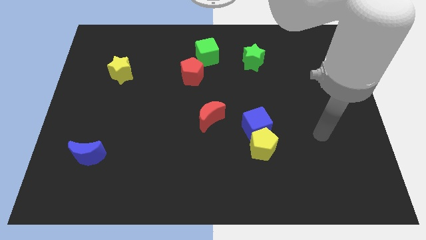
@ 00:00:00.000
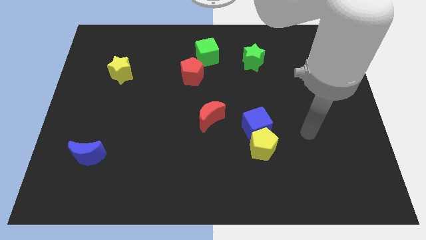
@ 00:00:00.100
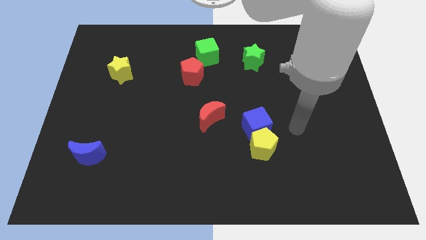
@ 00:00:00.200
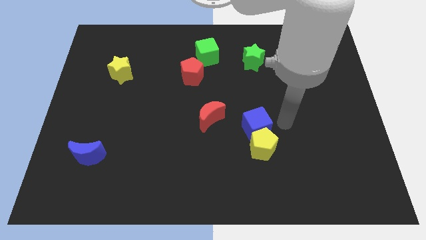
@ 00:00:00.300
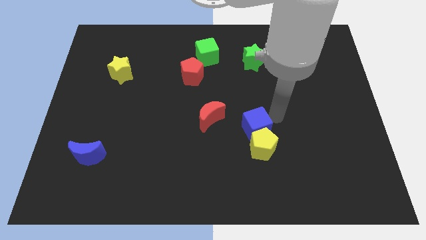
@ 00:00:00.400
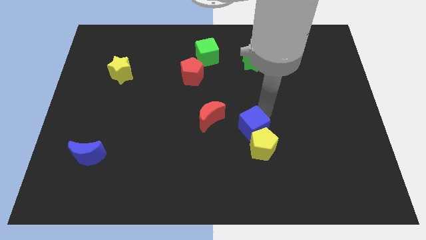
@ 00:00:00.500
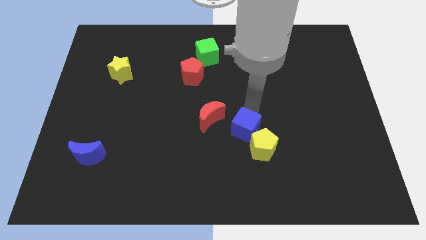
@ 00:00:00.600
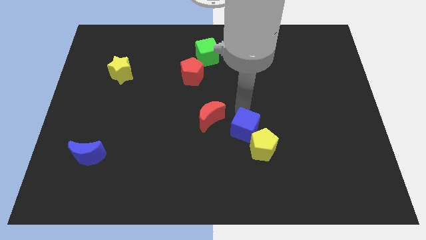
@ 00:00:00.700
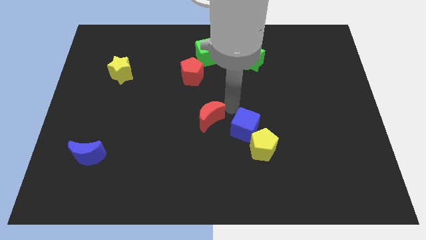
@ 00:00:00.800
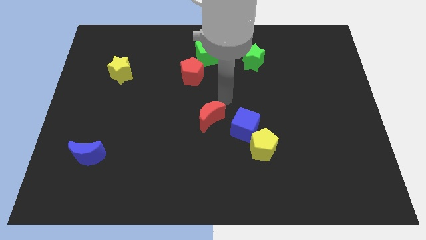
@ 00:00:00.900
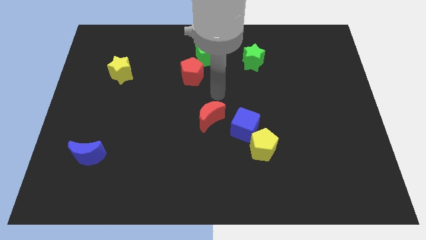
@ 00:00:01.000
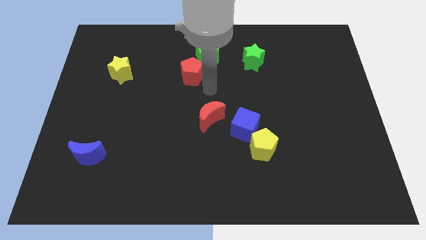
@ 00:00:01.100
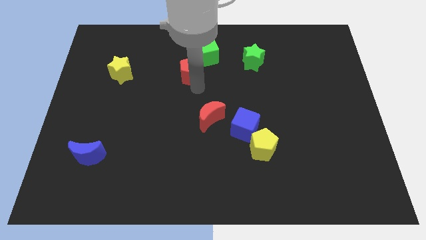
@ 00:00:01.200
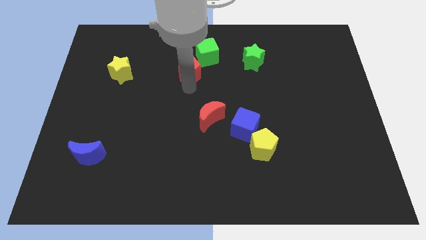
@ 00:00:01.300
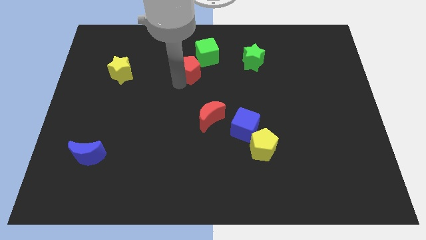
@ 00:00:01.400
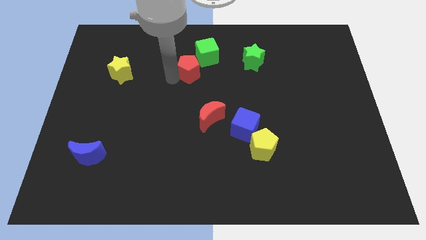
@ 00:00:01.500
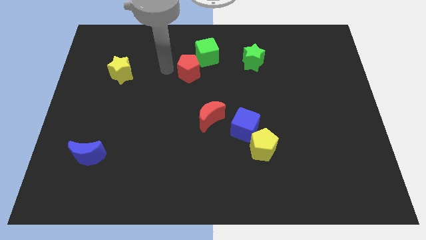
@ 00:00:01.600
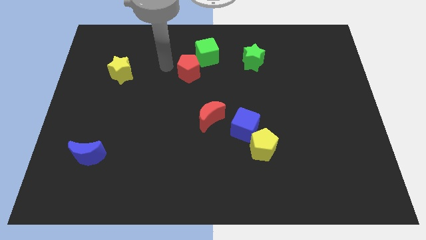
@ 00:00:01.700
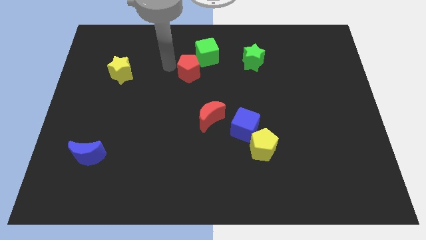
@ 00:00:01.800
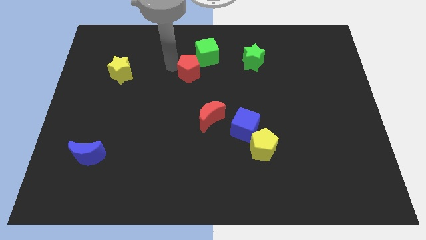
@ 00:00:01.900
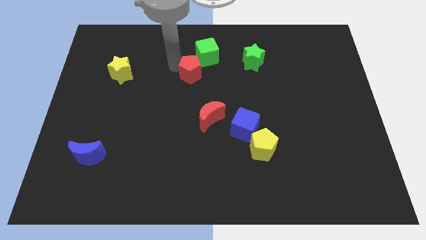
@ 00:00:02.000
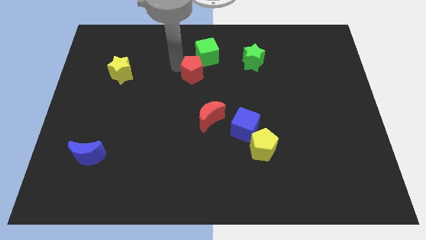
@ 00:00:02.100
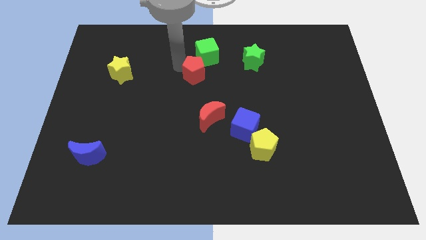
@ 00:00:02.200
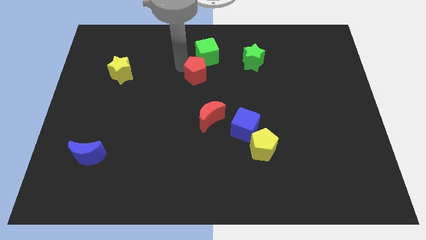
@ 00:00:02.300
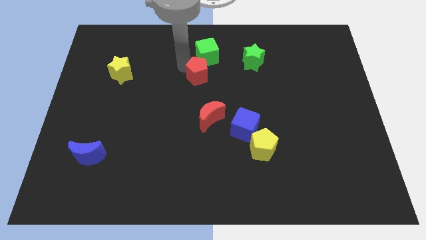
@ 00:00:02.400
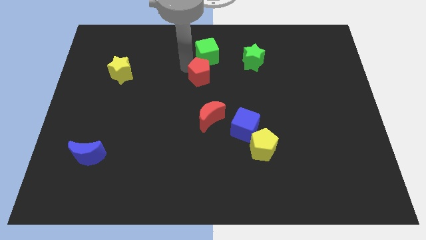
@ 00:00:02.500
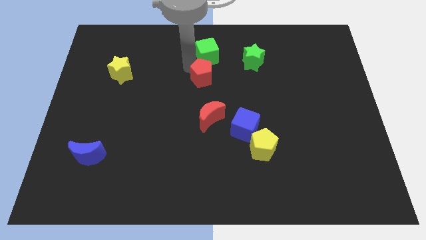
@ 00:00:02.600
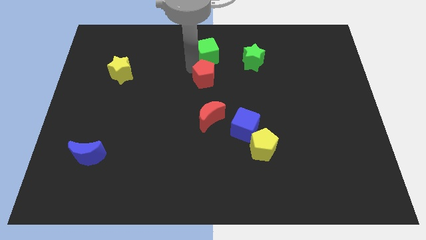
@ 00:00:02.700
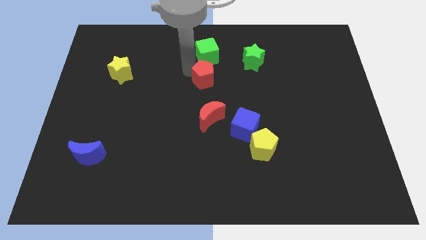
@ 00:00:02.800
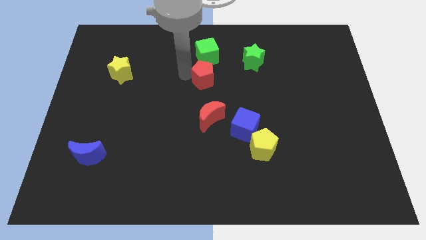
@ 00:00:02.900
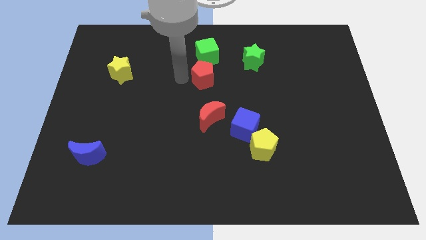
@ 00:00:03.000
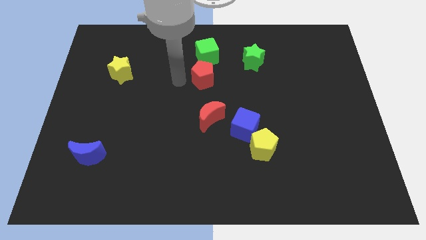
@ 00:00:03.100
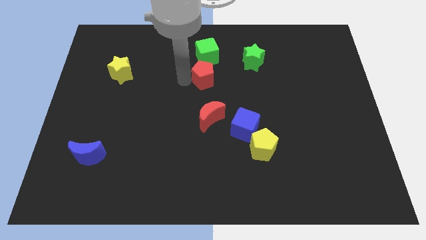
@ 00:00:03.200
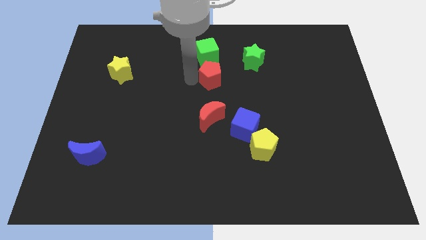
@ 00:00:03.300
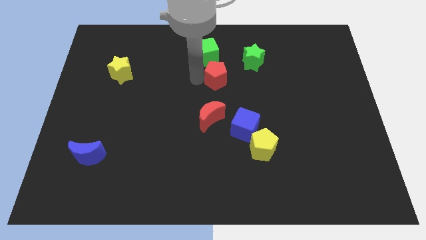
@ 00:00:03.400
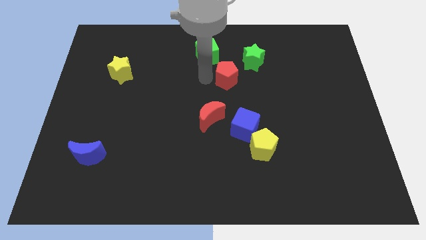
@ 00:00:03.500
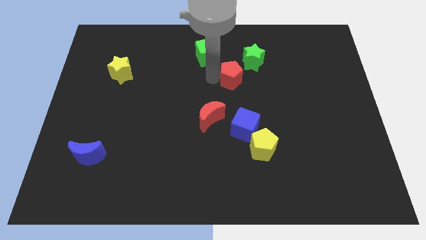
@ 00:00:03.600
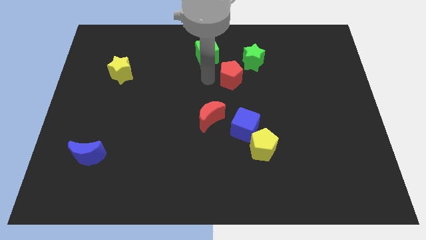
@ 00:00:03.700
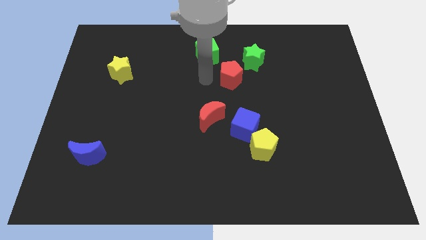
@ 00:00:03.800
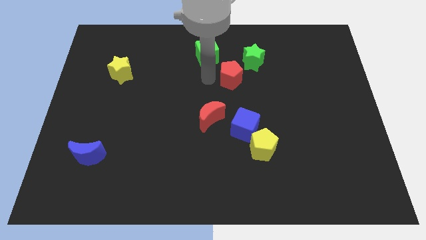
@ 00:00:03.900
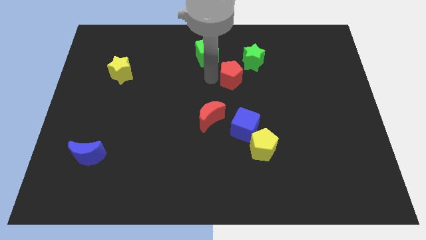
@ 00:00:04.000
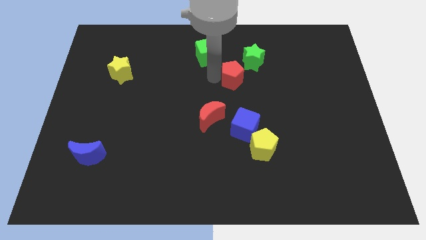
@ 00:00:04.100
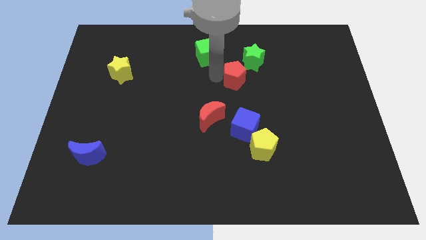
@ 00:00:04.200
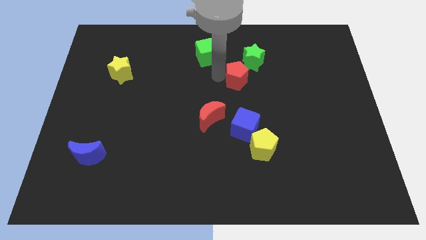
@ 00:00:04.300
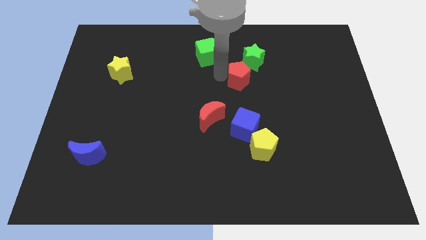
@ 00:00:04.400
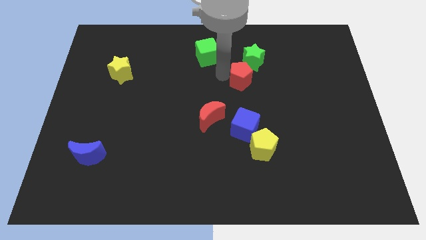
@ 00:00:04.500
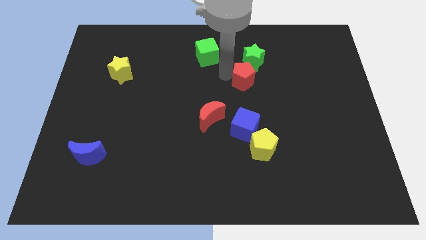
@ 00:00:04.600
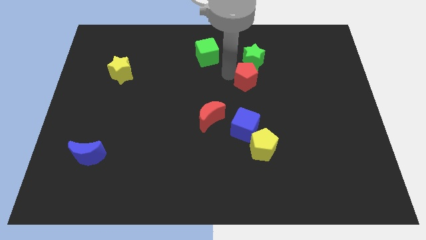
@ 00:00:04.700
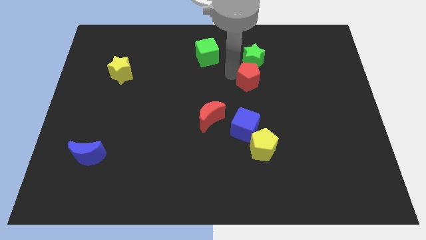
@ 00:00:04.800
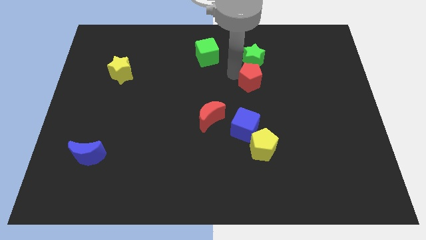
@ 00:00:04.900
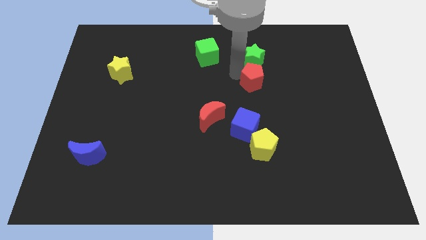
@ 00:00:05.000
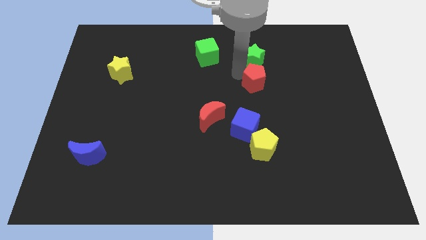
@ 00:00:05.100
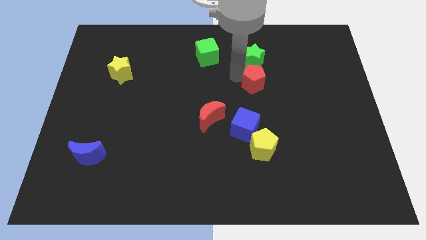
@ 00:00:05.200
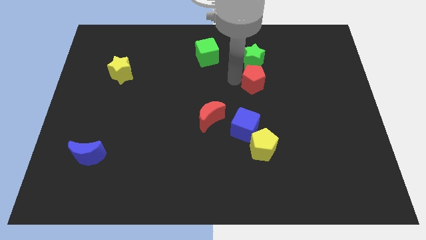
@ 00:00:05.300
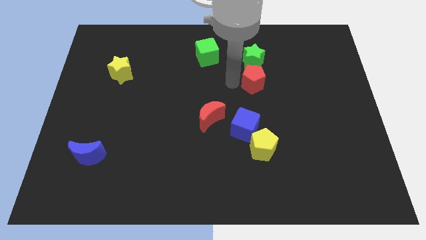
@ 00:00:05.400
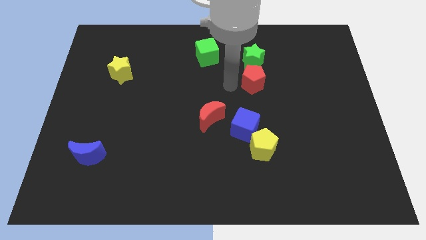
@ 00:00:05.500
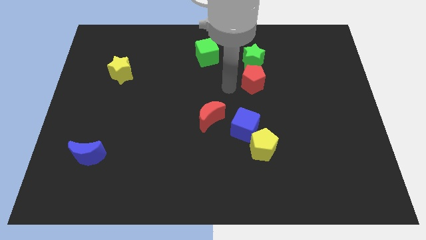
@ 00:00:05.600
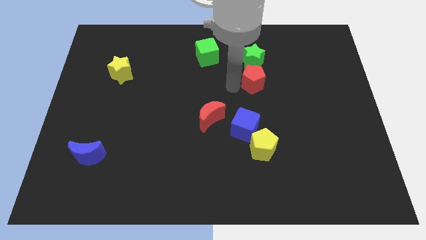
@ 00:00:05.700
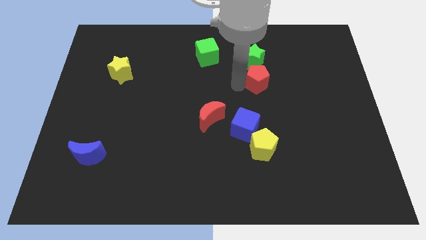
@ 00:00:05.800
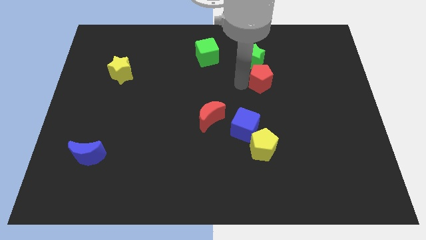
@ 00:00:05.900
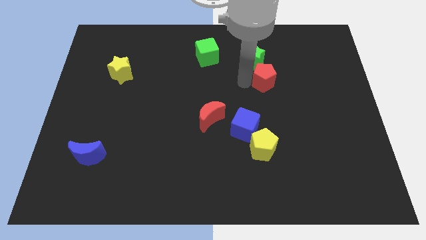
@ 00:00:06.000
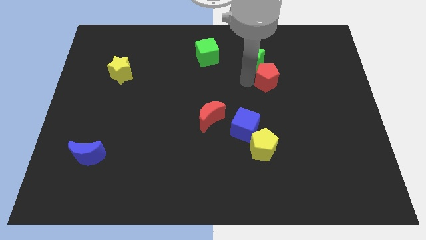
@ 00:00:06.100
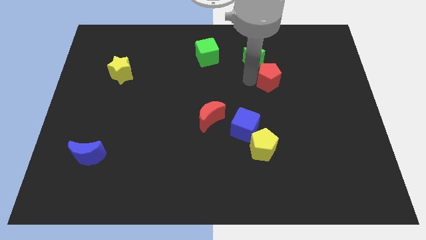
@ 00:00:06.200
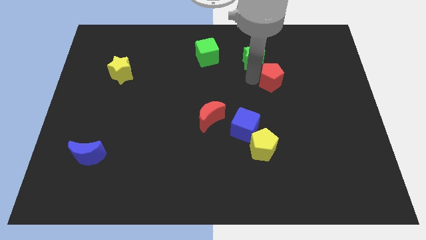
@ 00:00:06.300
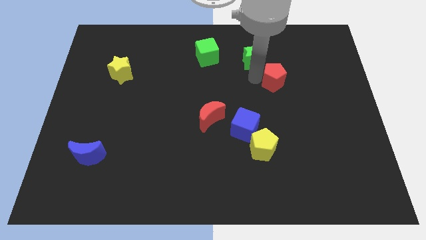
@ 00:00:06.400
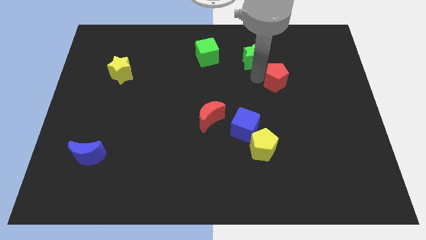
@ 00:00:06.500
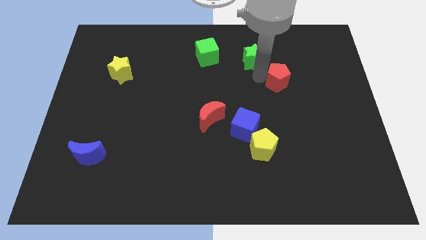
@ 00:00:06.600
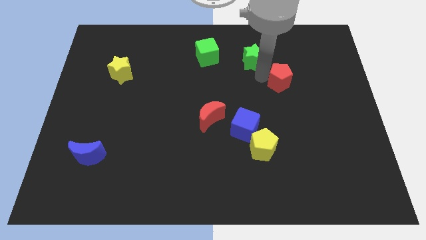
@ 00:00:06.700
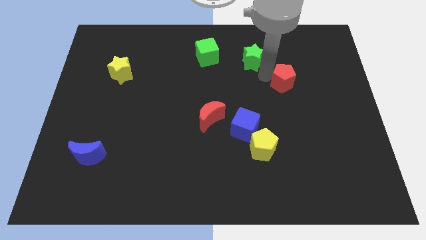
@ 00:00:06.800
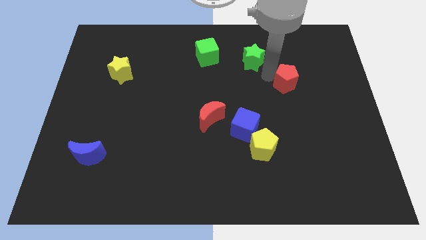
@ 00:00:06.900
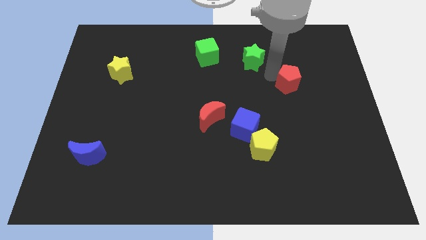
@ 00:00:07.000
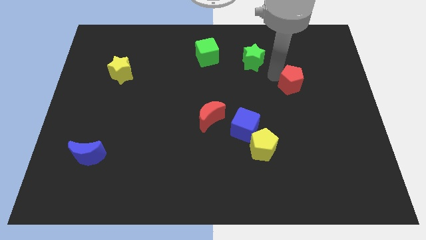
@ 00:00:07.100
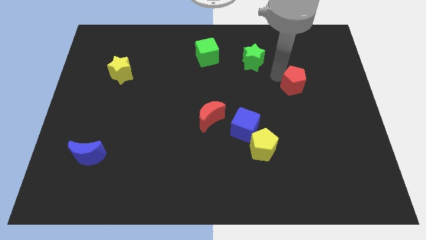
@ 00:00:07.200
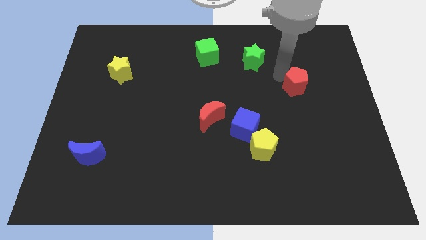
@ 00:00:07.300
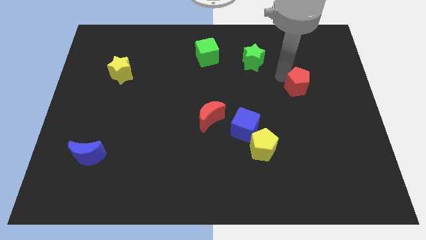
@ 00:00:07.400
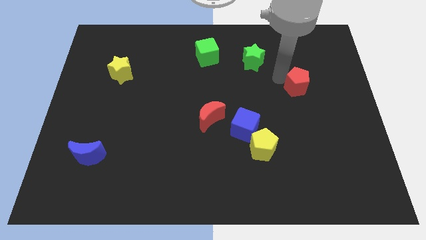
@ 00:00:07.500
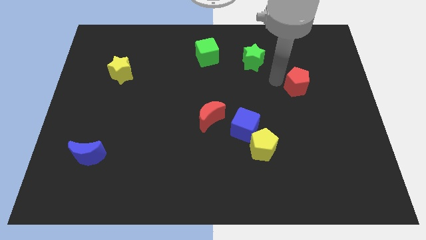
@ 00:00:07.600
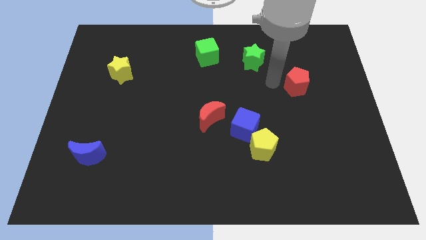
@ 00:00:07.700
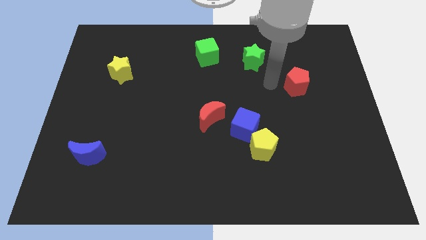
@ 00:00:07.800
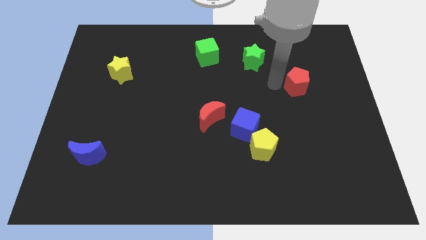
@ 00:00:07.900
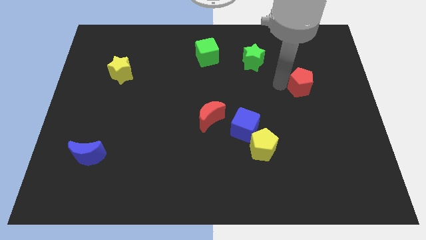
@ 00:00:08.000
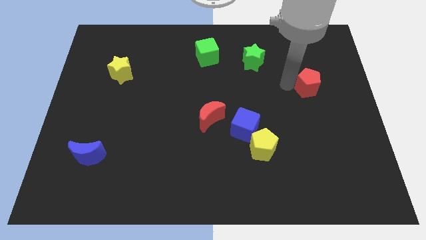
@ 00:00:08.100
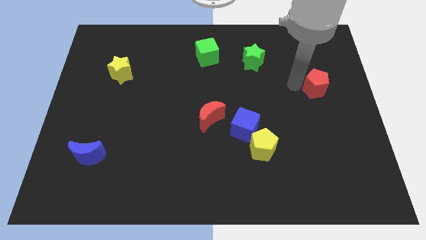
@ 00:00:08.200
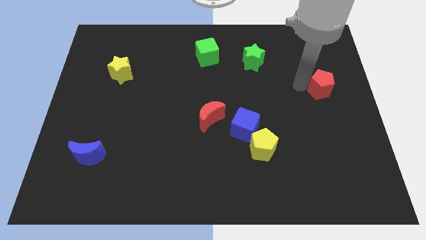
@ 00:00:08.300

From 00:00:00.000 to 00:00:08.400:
put the red pentagon to the right side
